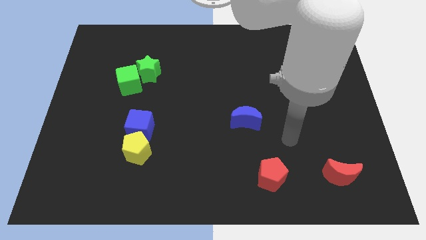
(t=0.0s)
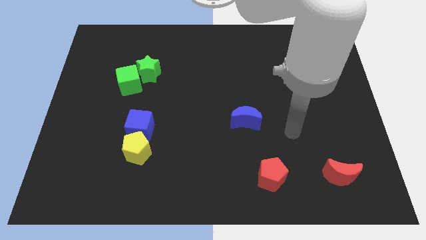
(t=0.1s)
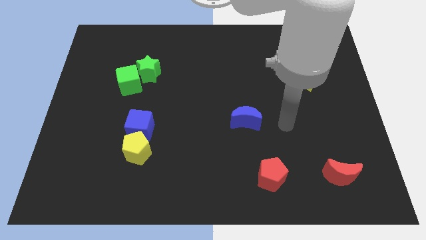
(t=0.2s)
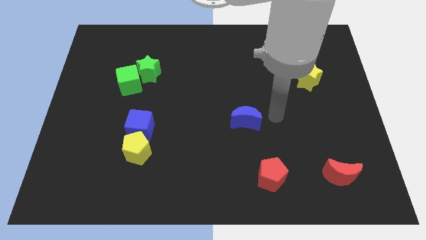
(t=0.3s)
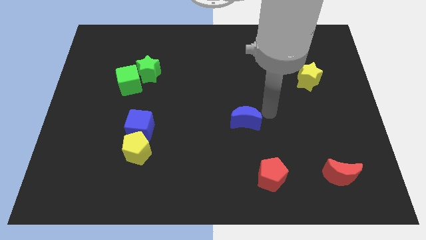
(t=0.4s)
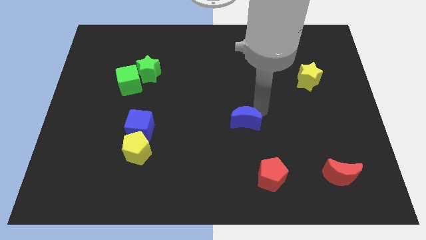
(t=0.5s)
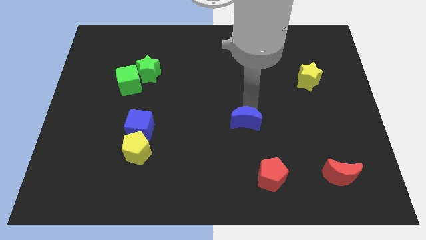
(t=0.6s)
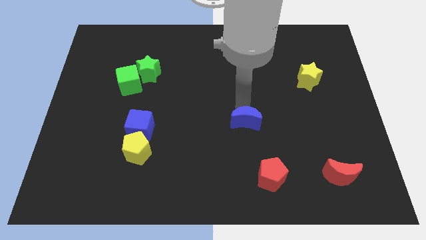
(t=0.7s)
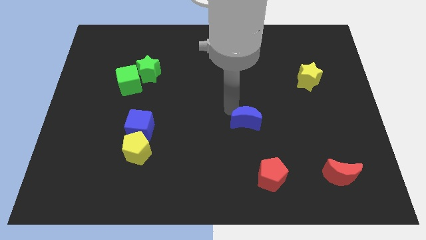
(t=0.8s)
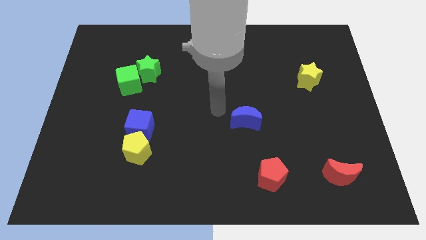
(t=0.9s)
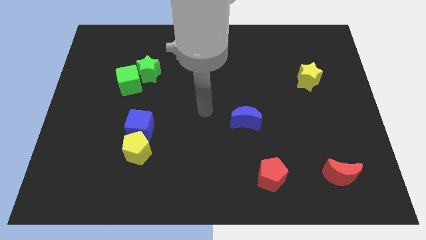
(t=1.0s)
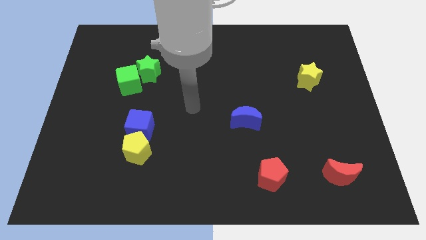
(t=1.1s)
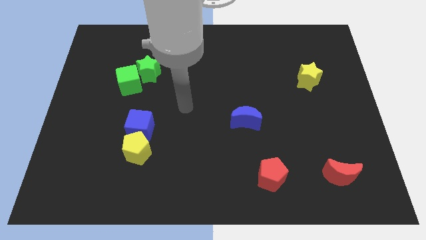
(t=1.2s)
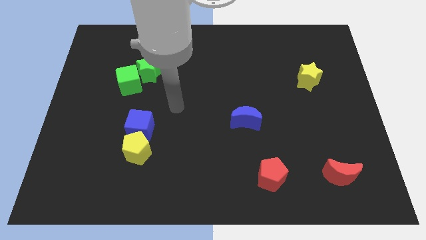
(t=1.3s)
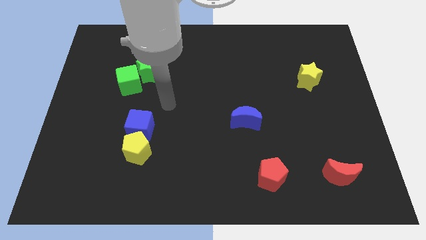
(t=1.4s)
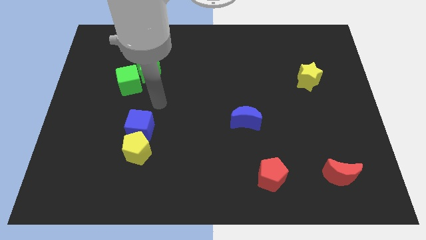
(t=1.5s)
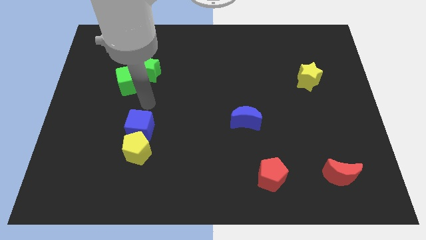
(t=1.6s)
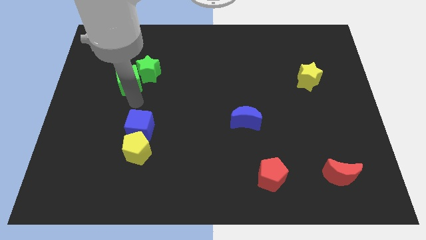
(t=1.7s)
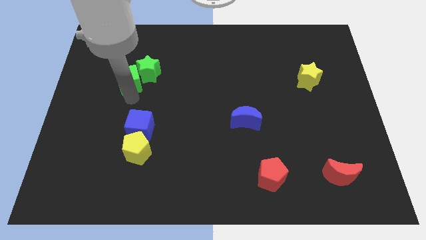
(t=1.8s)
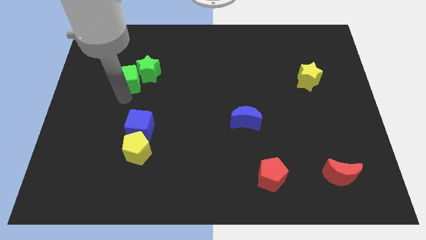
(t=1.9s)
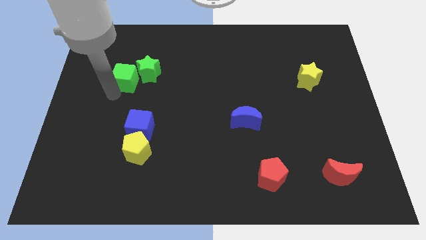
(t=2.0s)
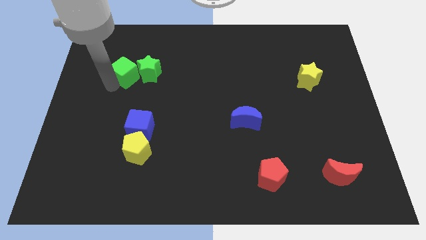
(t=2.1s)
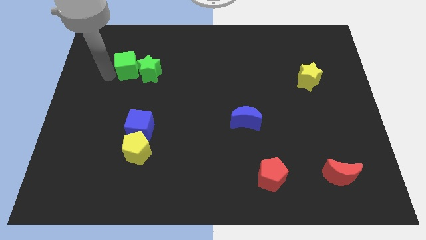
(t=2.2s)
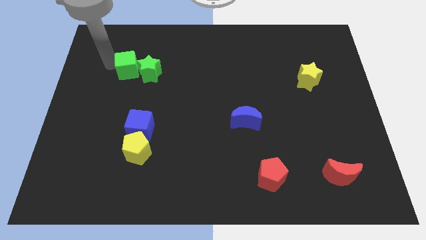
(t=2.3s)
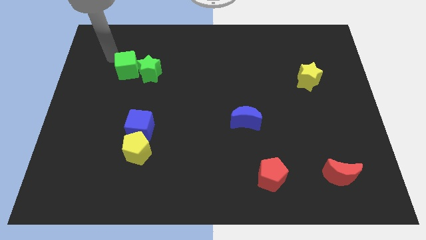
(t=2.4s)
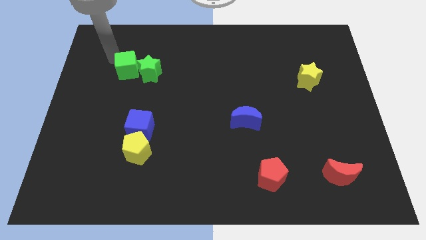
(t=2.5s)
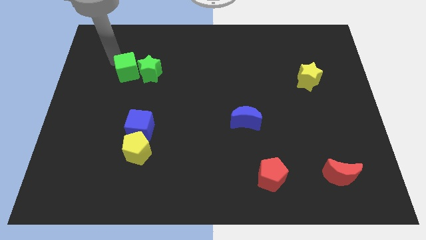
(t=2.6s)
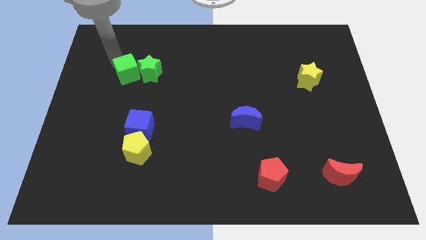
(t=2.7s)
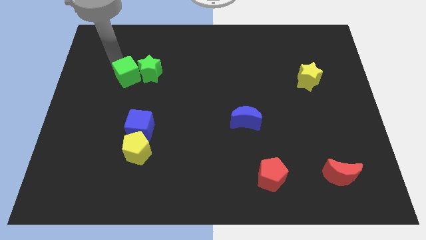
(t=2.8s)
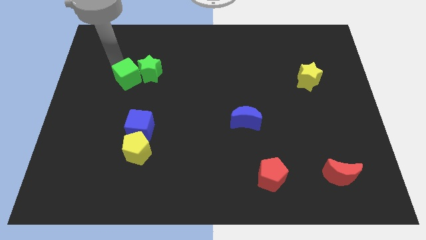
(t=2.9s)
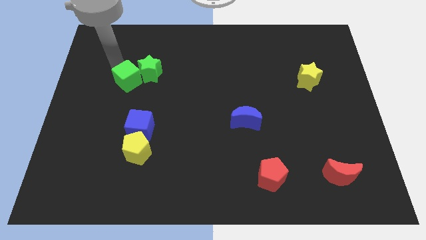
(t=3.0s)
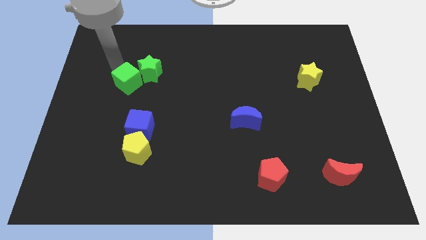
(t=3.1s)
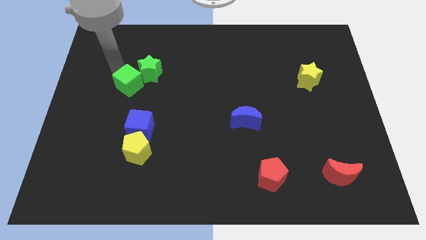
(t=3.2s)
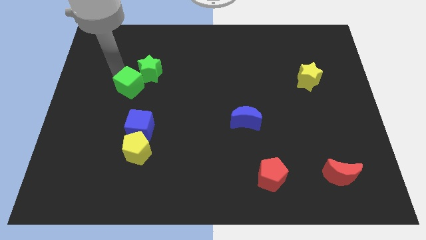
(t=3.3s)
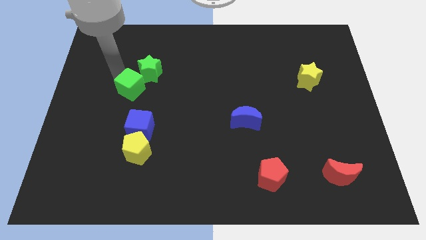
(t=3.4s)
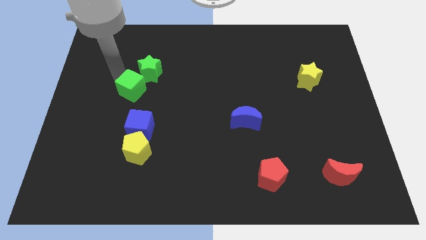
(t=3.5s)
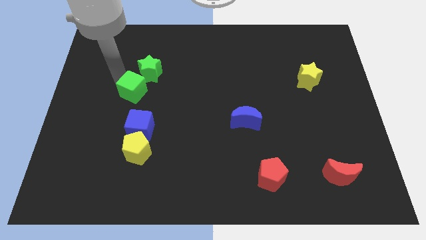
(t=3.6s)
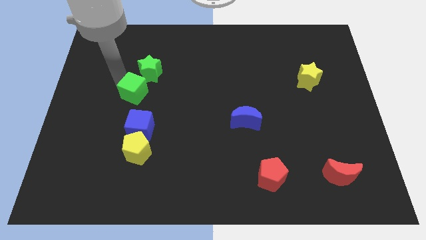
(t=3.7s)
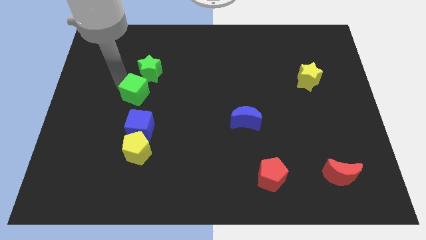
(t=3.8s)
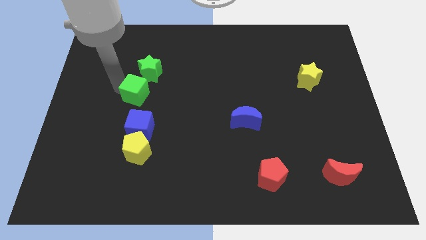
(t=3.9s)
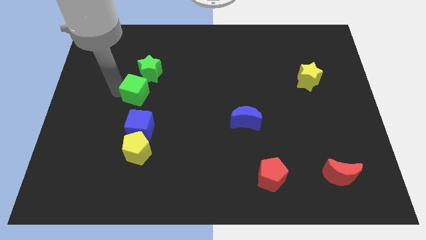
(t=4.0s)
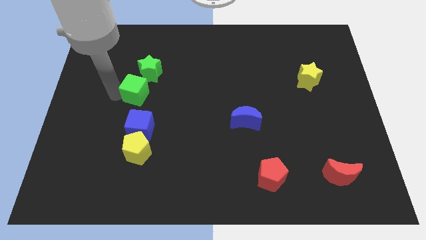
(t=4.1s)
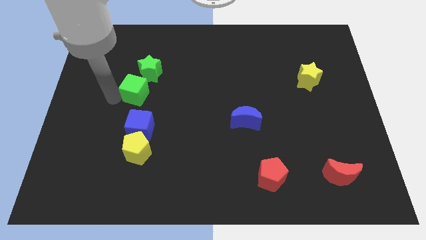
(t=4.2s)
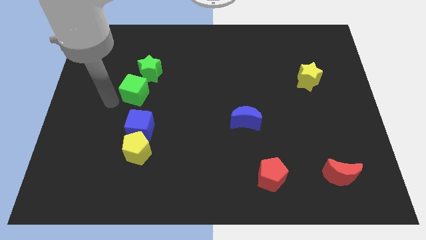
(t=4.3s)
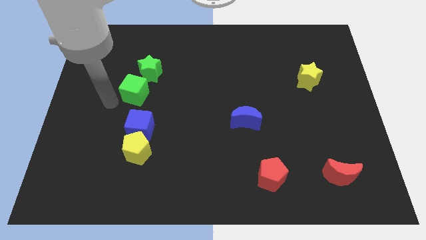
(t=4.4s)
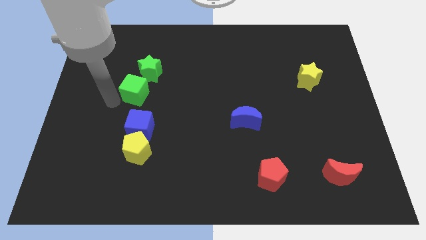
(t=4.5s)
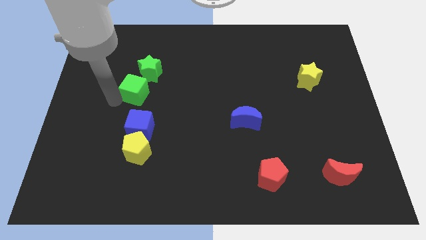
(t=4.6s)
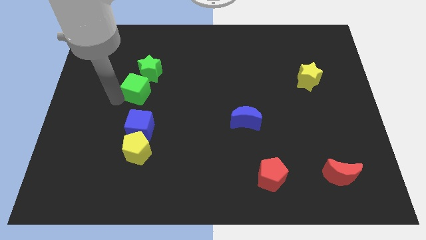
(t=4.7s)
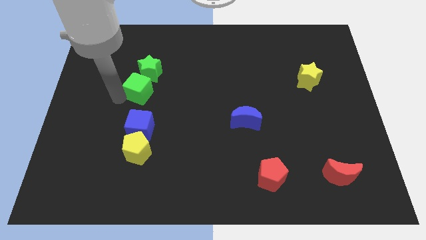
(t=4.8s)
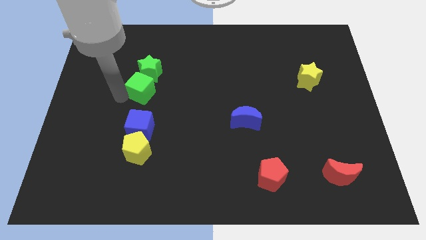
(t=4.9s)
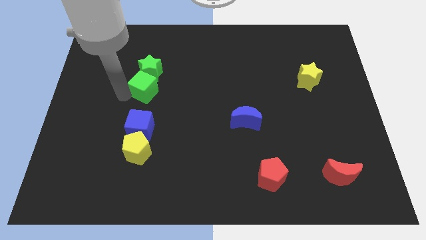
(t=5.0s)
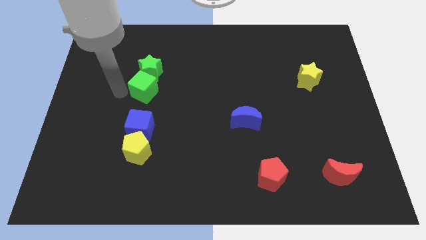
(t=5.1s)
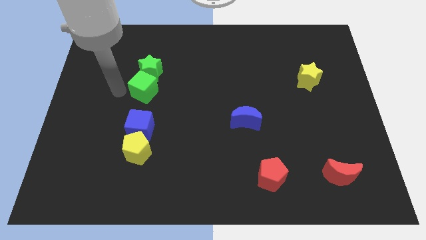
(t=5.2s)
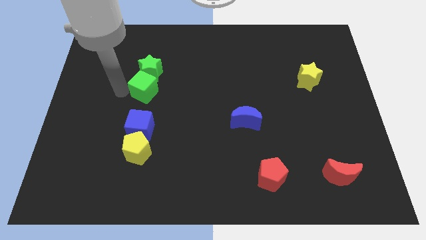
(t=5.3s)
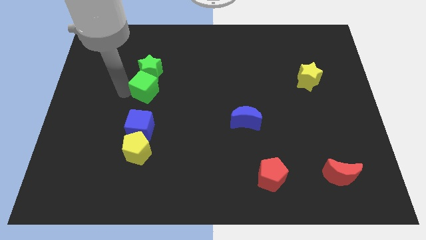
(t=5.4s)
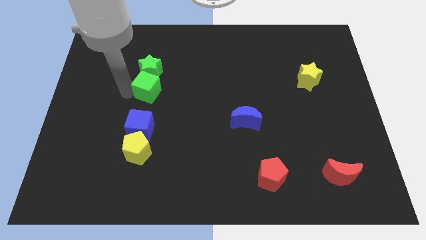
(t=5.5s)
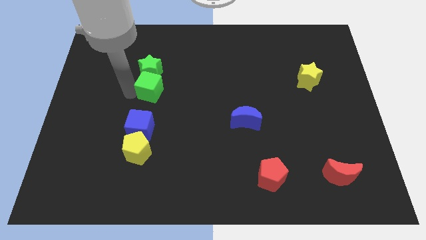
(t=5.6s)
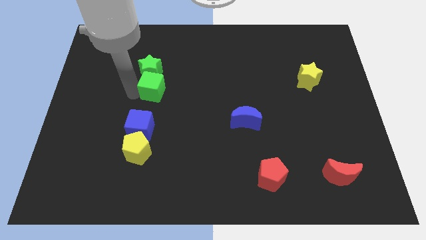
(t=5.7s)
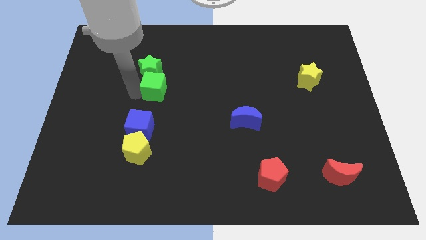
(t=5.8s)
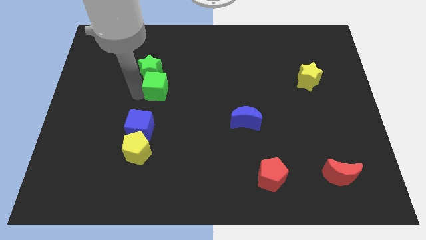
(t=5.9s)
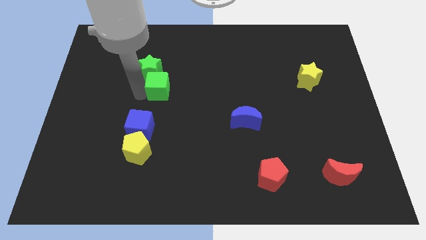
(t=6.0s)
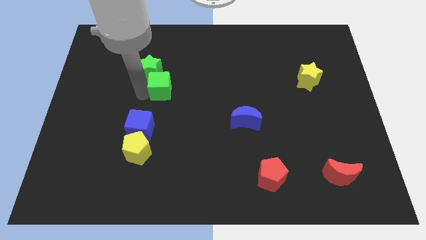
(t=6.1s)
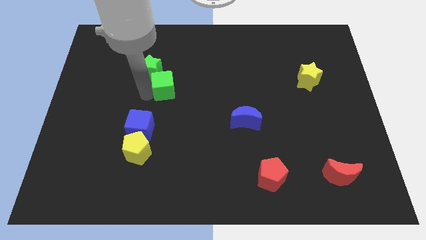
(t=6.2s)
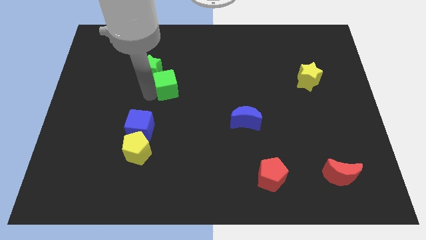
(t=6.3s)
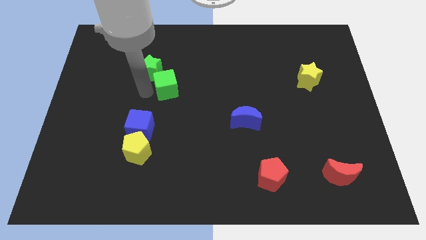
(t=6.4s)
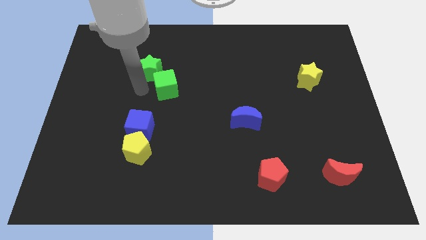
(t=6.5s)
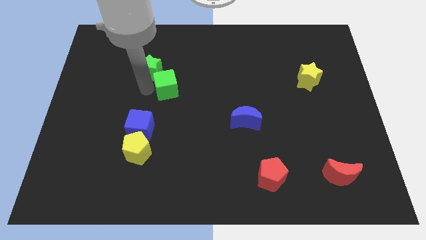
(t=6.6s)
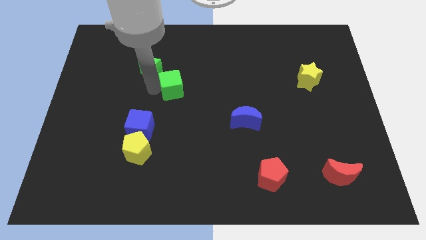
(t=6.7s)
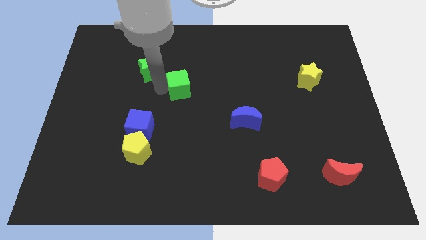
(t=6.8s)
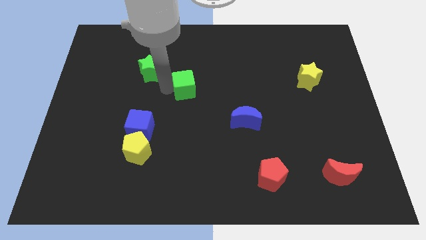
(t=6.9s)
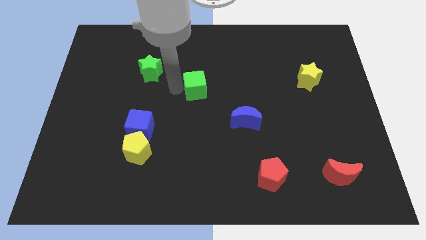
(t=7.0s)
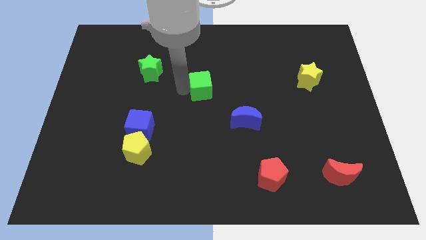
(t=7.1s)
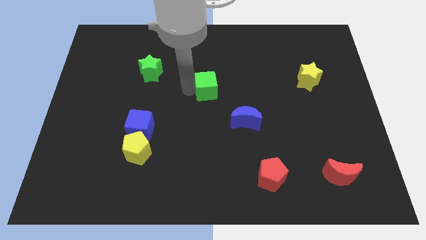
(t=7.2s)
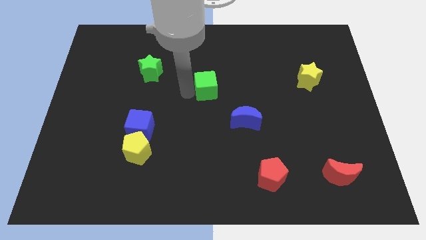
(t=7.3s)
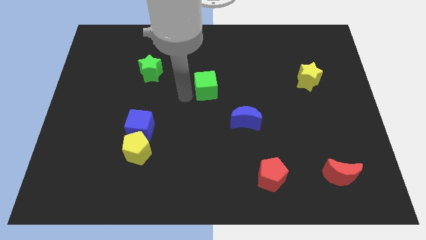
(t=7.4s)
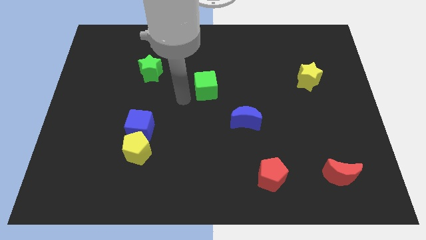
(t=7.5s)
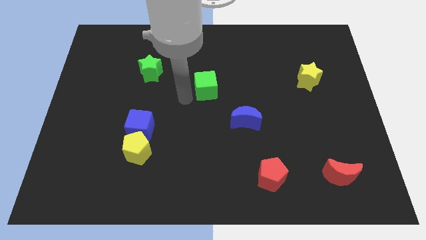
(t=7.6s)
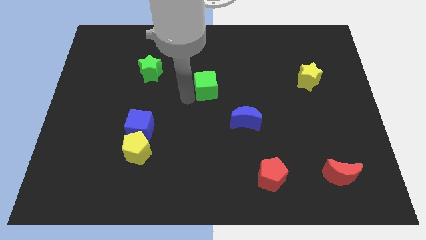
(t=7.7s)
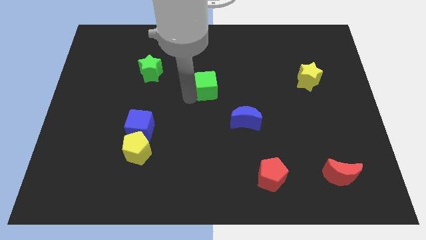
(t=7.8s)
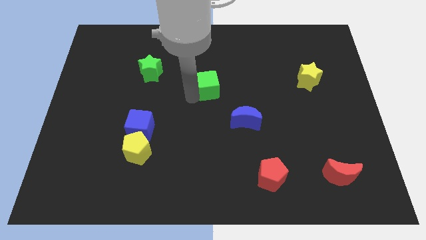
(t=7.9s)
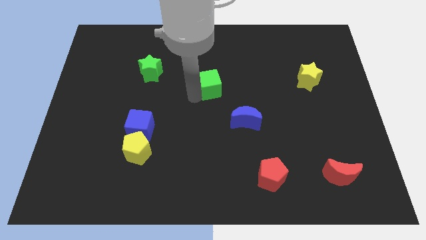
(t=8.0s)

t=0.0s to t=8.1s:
move the green cube right

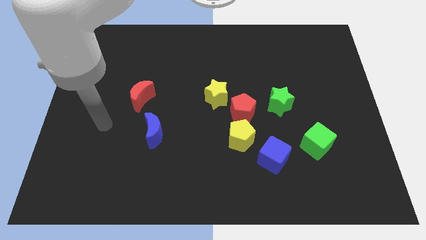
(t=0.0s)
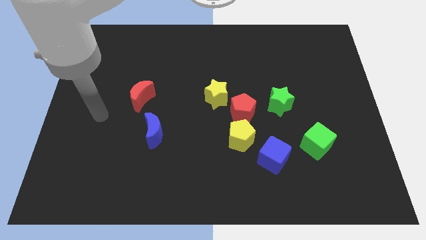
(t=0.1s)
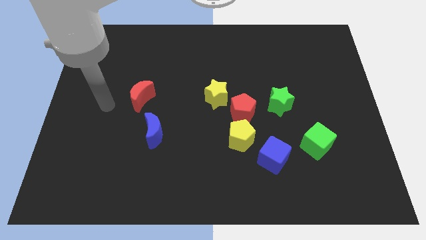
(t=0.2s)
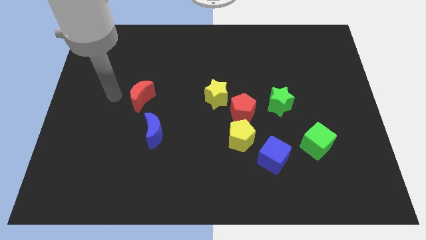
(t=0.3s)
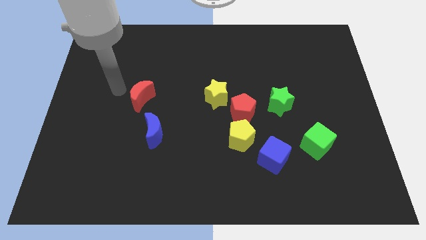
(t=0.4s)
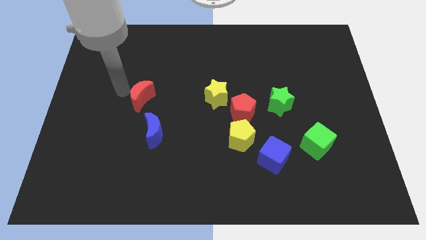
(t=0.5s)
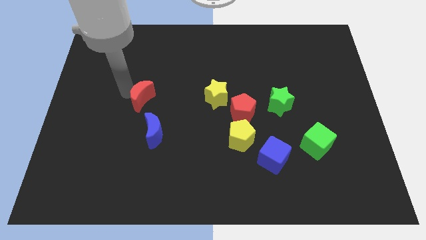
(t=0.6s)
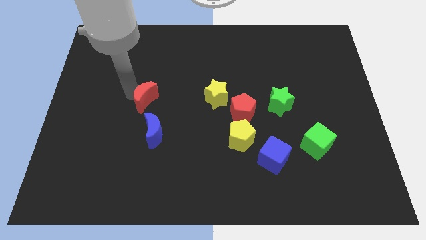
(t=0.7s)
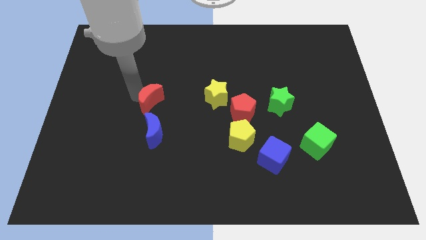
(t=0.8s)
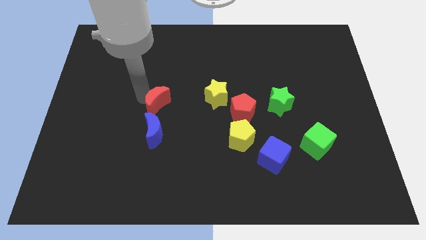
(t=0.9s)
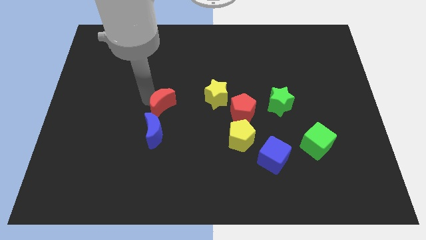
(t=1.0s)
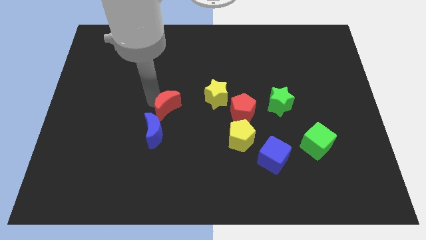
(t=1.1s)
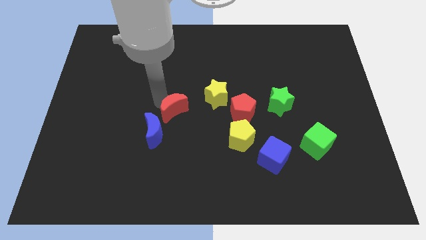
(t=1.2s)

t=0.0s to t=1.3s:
move the red moon downwards and right a little bit
